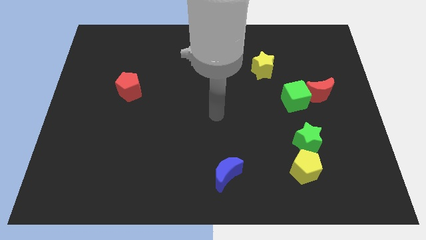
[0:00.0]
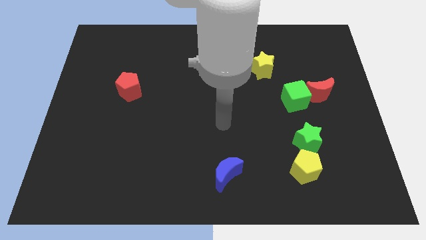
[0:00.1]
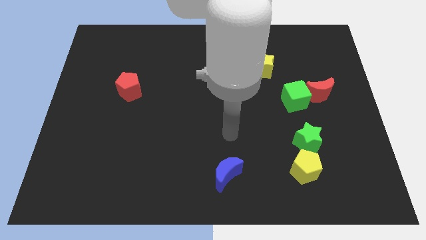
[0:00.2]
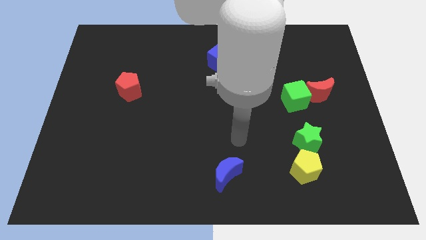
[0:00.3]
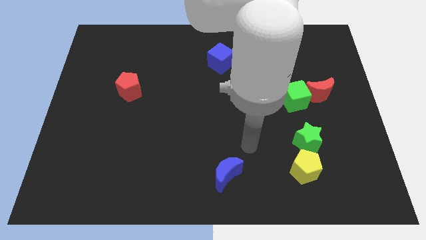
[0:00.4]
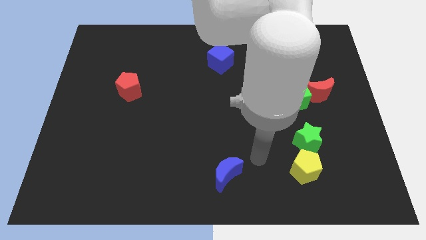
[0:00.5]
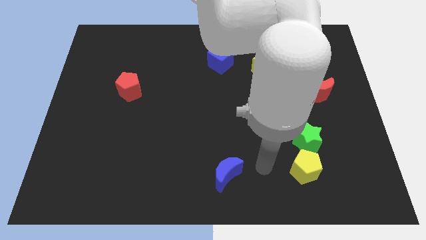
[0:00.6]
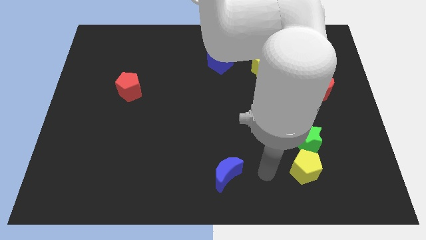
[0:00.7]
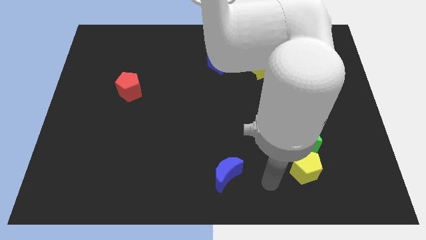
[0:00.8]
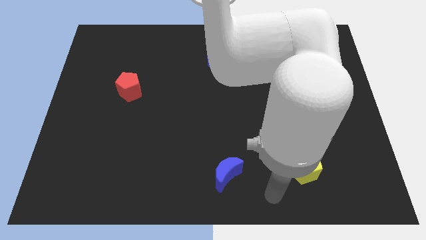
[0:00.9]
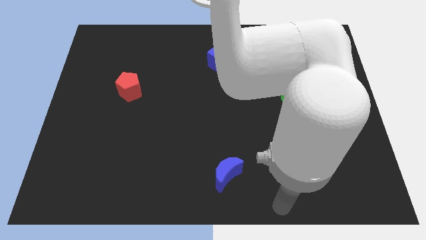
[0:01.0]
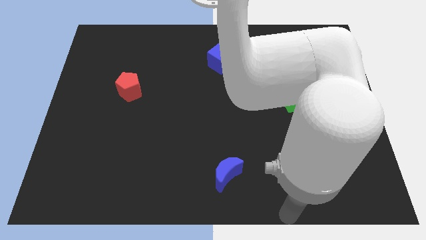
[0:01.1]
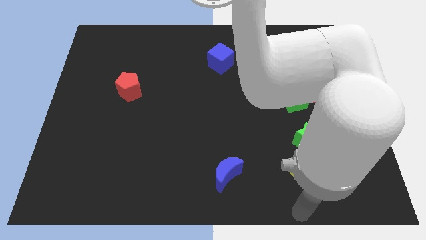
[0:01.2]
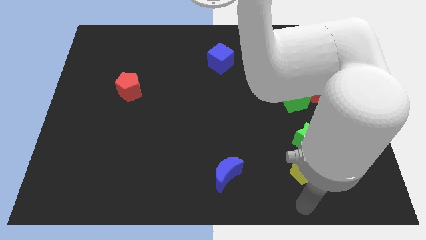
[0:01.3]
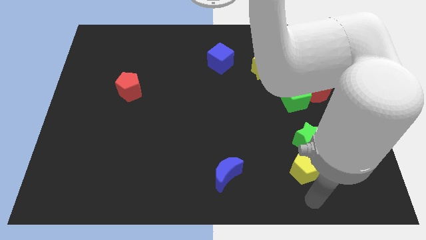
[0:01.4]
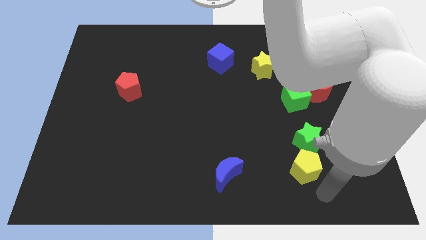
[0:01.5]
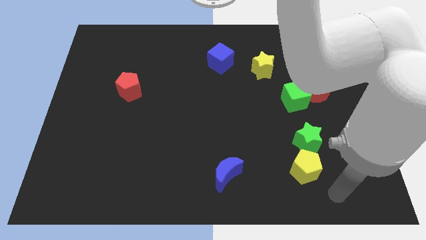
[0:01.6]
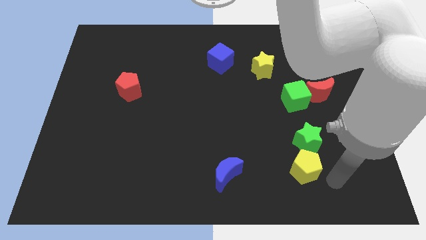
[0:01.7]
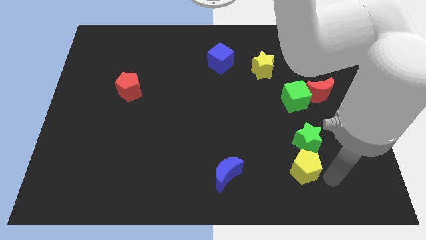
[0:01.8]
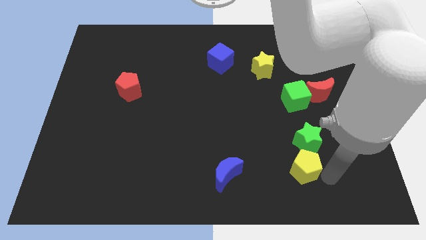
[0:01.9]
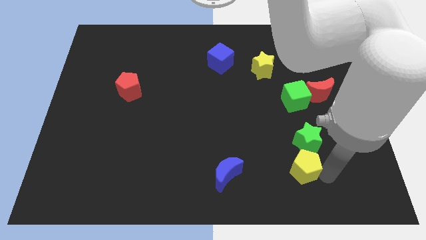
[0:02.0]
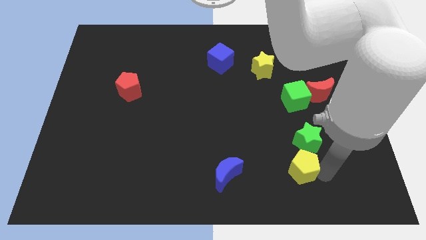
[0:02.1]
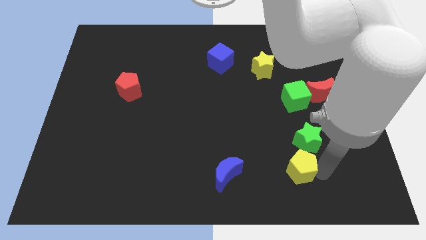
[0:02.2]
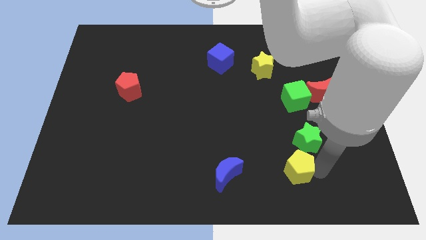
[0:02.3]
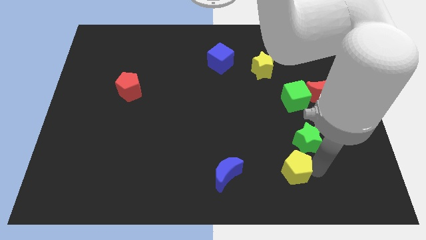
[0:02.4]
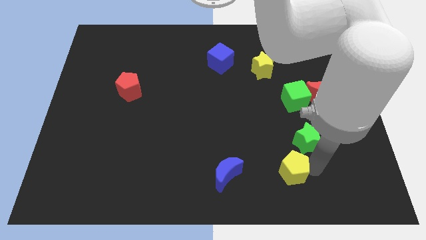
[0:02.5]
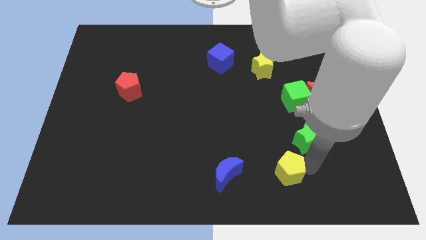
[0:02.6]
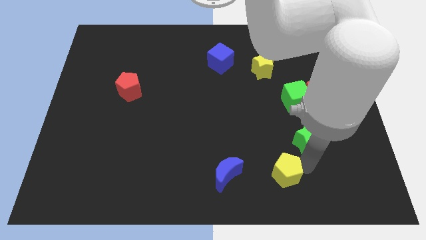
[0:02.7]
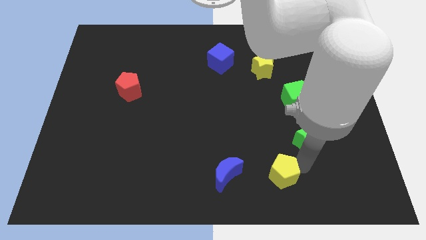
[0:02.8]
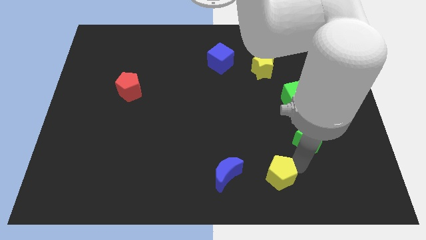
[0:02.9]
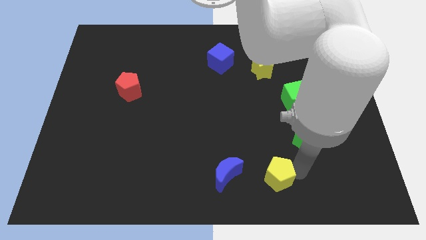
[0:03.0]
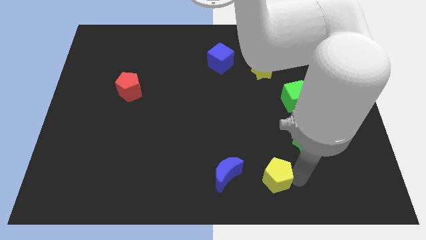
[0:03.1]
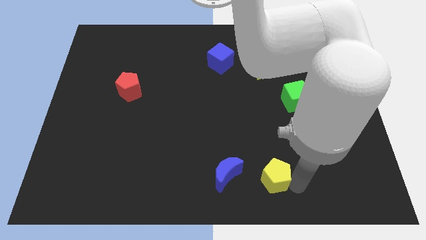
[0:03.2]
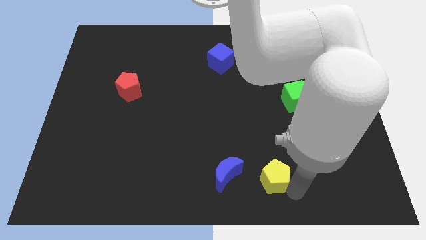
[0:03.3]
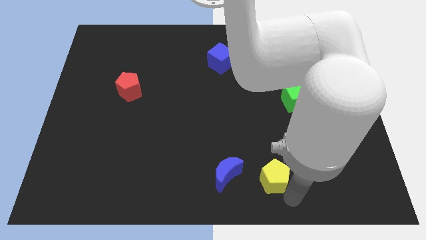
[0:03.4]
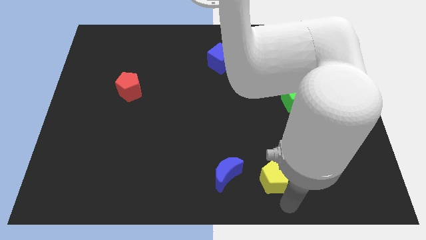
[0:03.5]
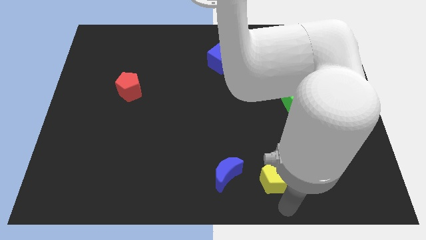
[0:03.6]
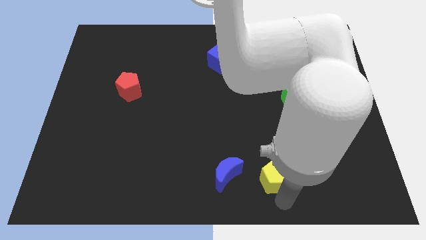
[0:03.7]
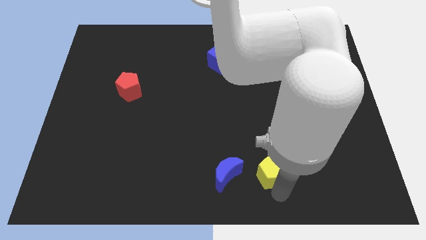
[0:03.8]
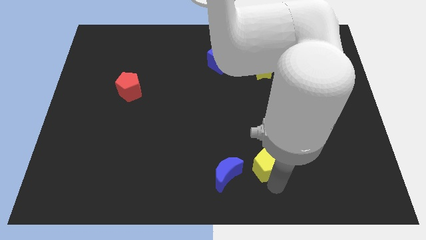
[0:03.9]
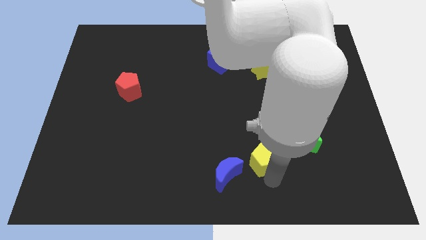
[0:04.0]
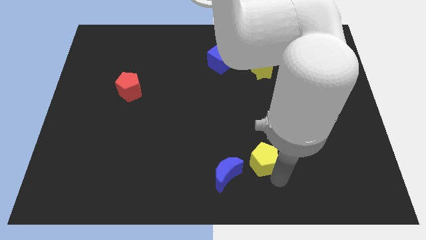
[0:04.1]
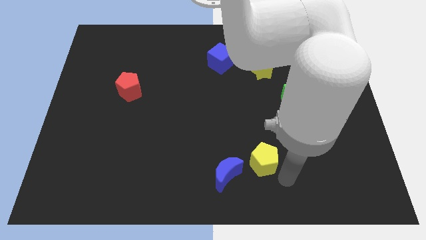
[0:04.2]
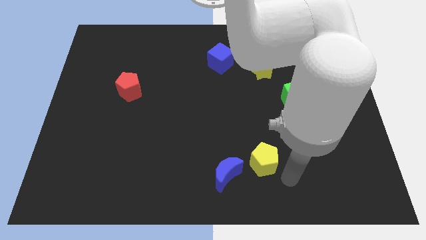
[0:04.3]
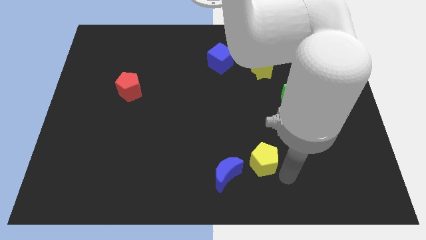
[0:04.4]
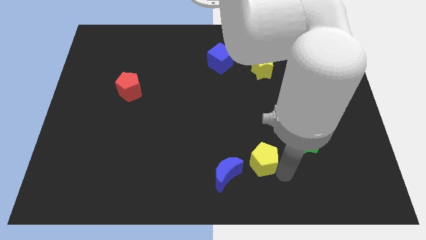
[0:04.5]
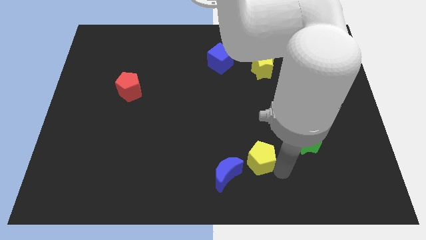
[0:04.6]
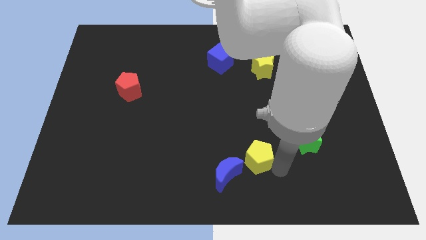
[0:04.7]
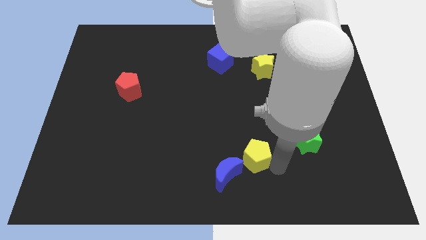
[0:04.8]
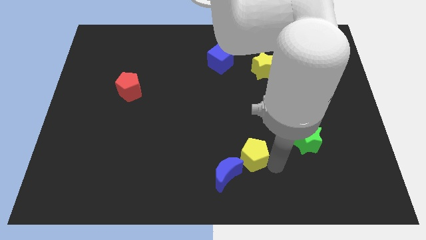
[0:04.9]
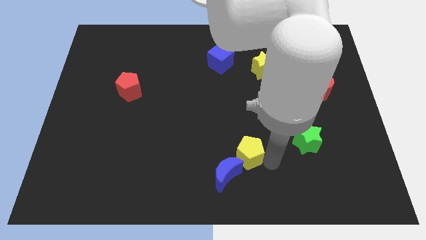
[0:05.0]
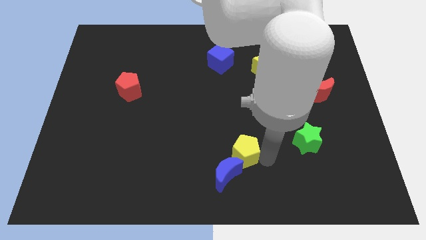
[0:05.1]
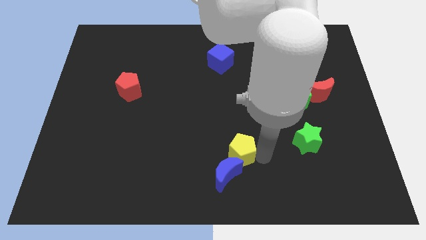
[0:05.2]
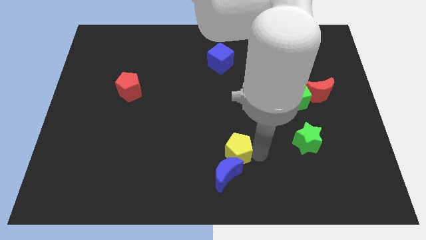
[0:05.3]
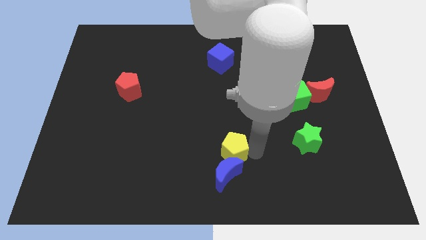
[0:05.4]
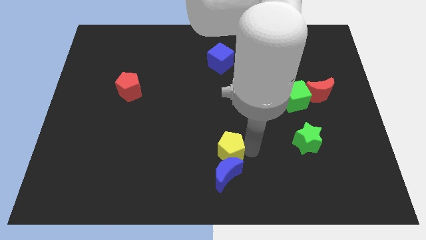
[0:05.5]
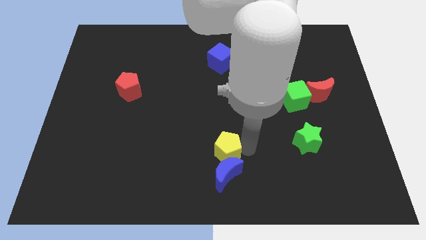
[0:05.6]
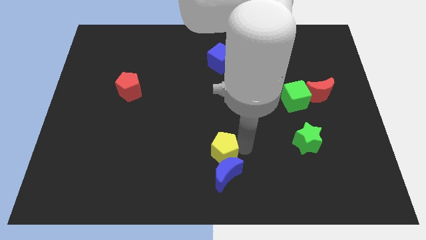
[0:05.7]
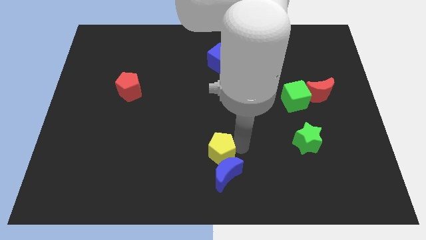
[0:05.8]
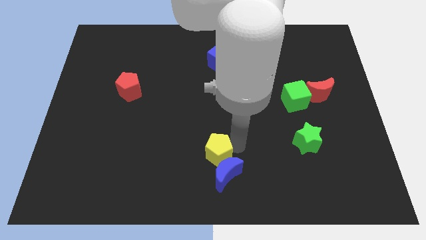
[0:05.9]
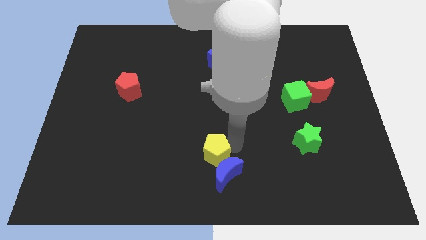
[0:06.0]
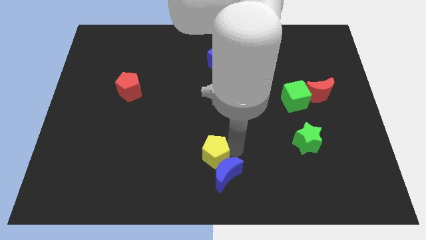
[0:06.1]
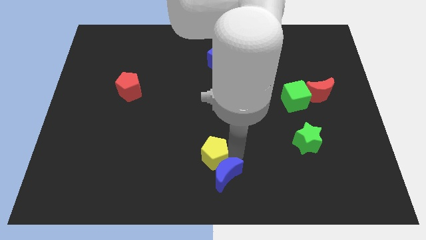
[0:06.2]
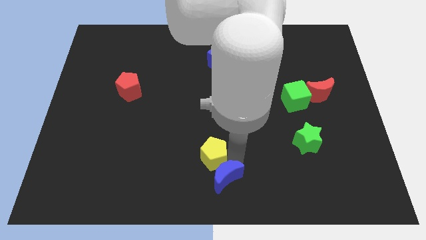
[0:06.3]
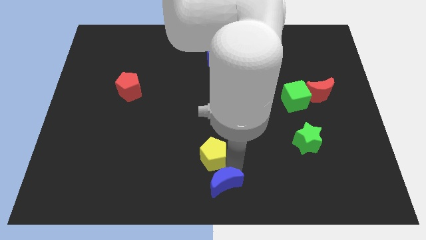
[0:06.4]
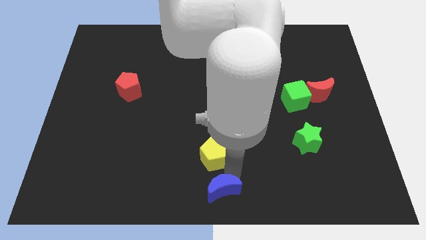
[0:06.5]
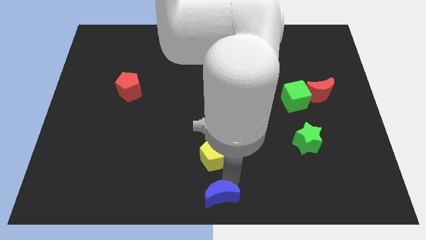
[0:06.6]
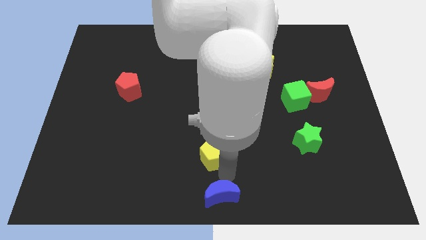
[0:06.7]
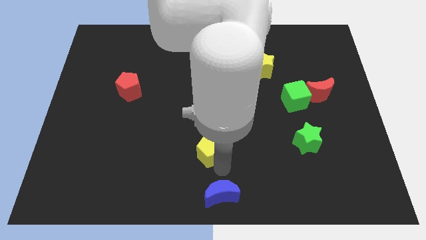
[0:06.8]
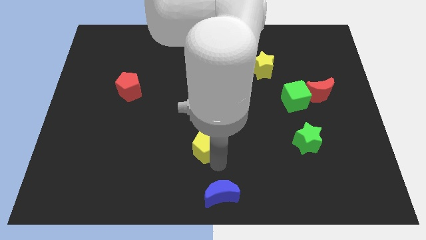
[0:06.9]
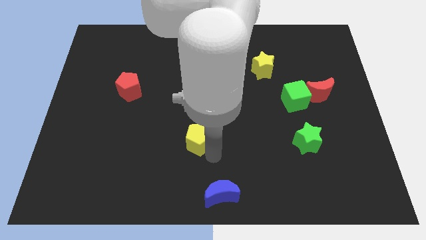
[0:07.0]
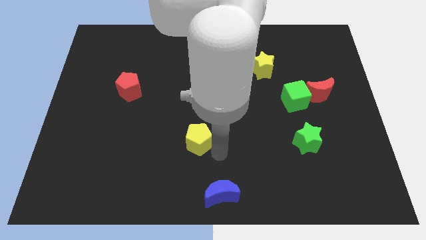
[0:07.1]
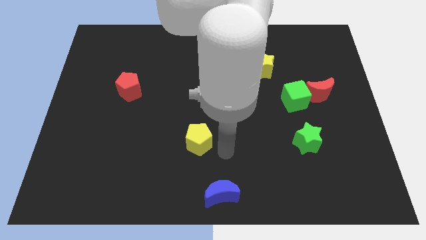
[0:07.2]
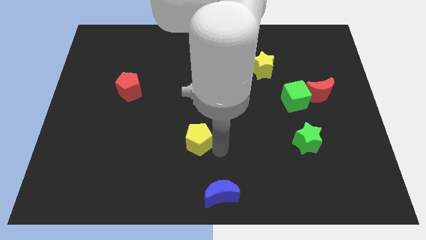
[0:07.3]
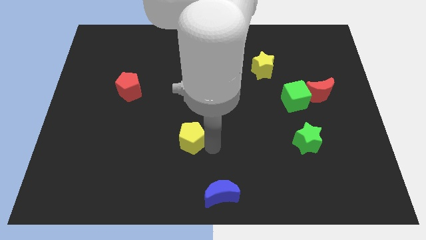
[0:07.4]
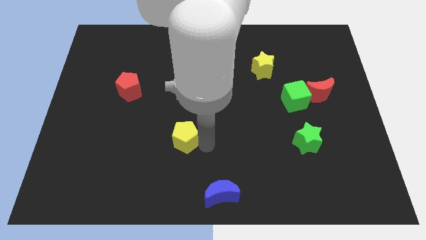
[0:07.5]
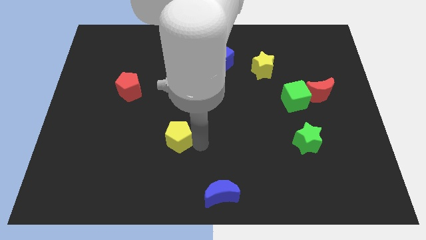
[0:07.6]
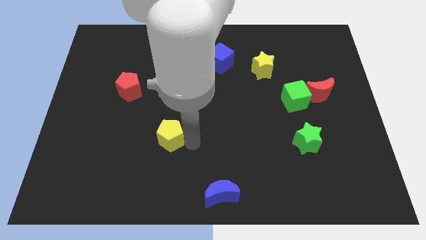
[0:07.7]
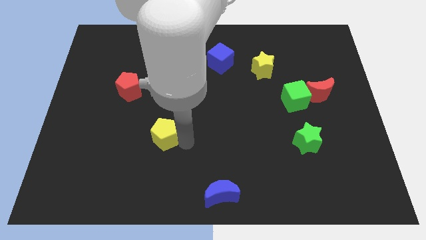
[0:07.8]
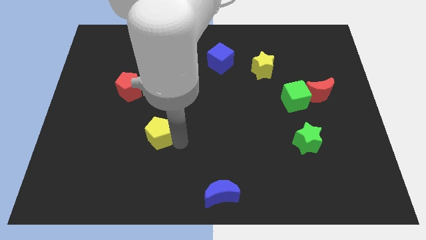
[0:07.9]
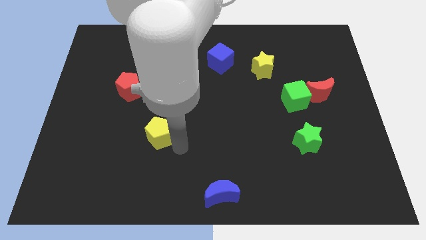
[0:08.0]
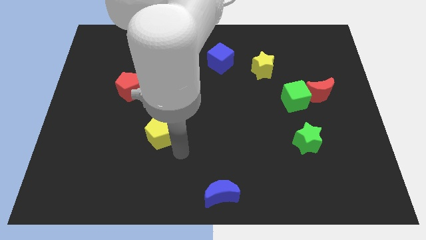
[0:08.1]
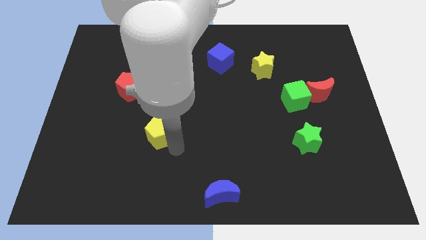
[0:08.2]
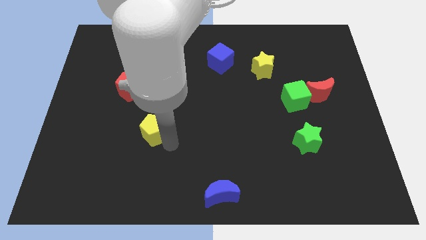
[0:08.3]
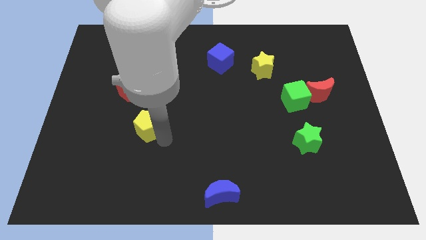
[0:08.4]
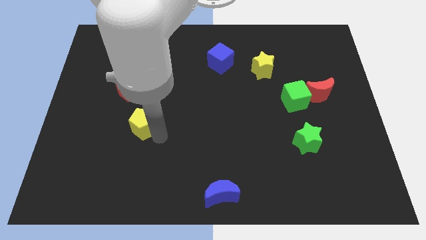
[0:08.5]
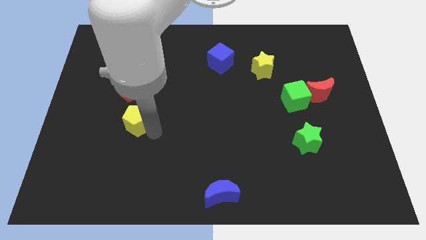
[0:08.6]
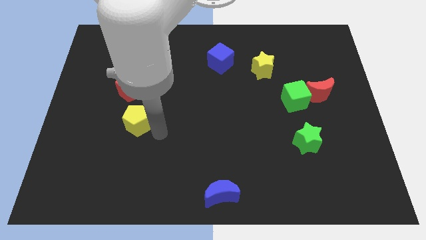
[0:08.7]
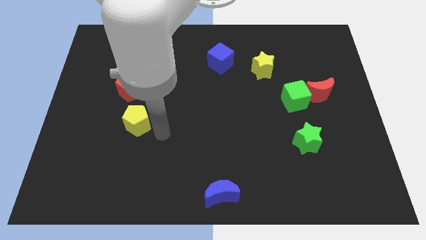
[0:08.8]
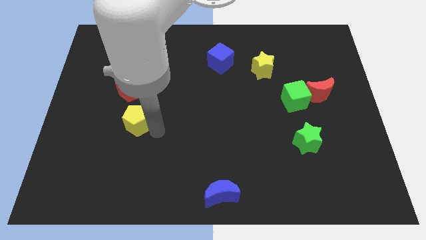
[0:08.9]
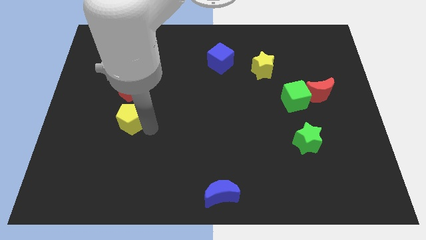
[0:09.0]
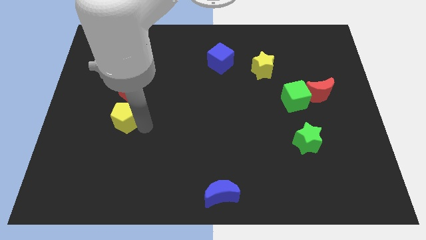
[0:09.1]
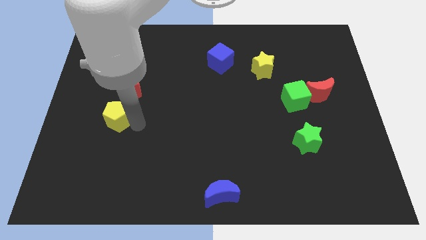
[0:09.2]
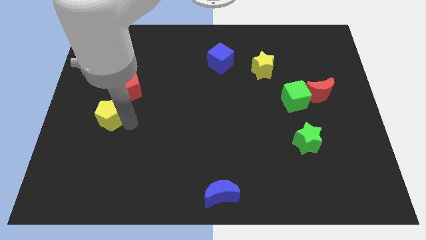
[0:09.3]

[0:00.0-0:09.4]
slide the yellow pentagon to the bottom left of the red pentagon
